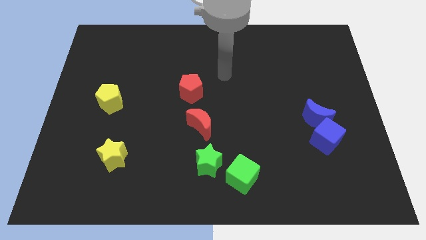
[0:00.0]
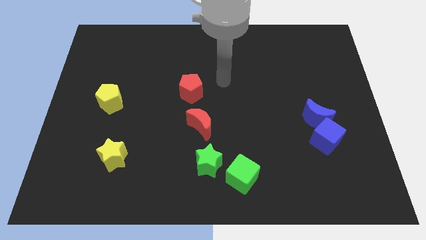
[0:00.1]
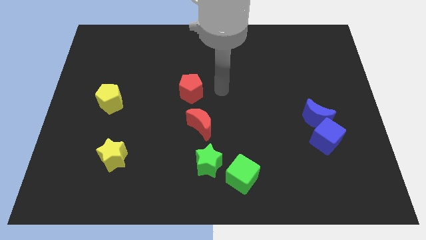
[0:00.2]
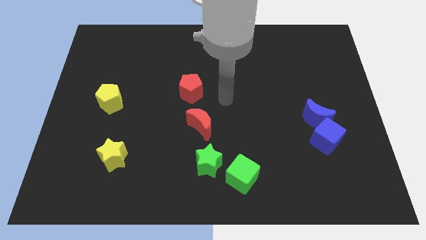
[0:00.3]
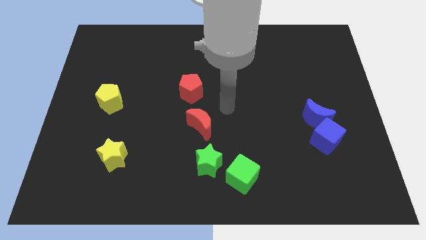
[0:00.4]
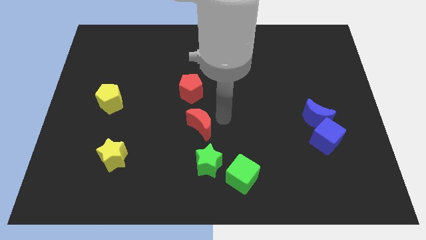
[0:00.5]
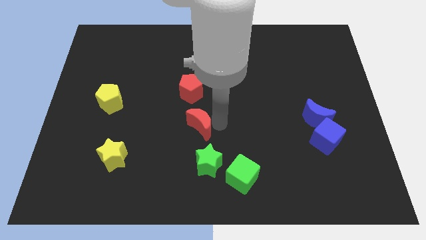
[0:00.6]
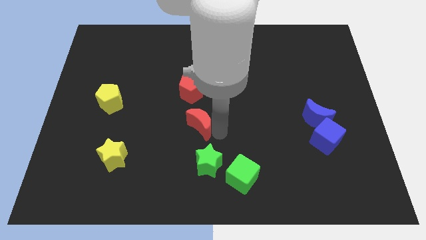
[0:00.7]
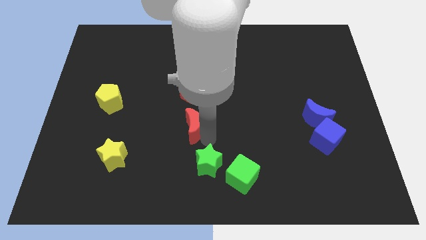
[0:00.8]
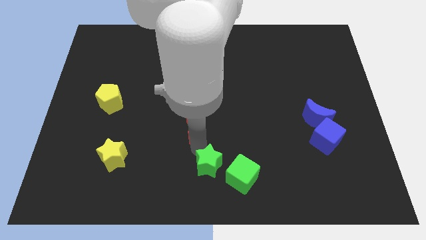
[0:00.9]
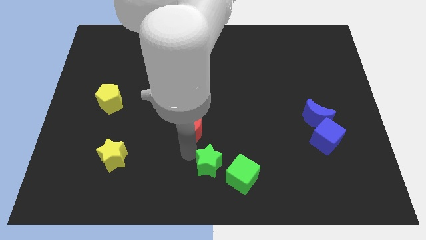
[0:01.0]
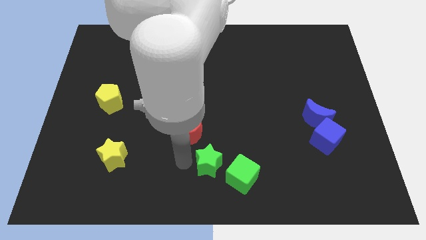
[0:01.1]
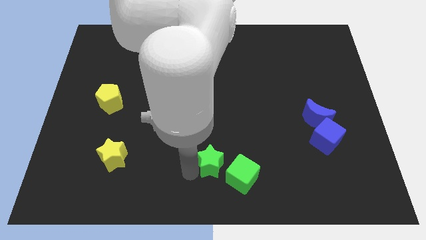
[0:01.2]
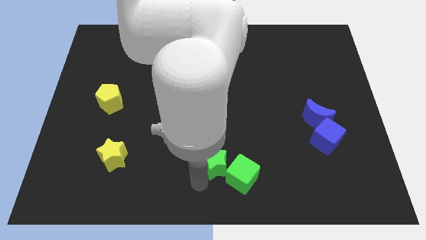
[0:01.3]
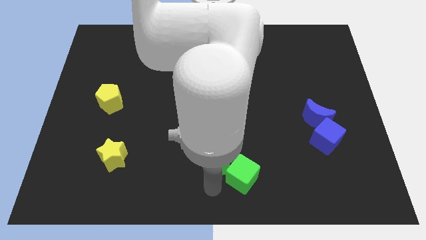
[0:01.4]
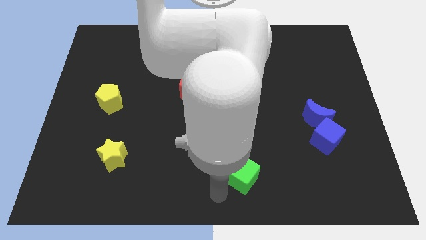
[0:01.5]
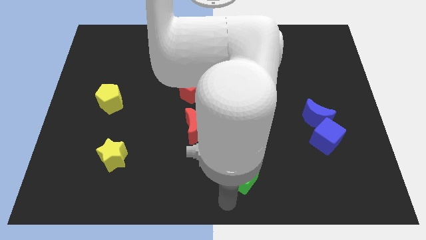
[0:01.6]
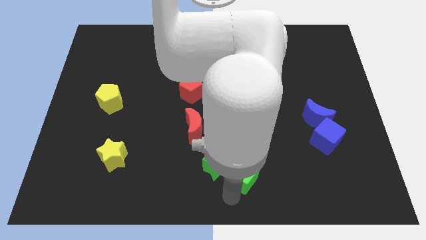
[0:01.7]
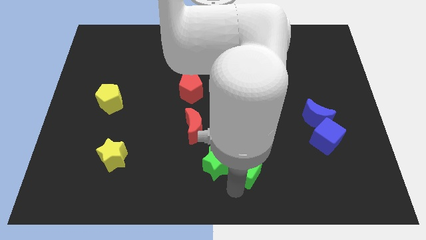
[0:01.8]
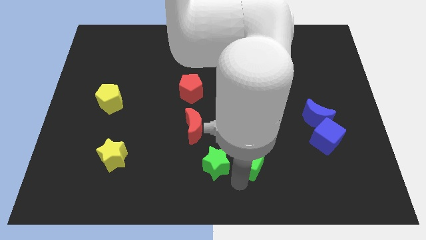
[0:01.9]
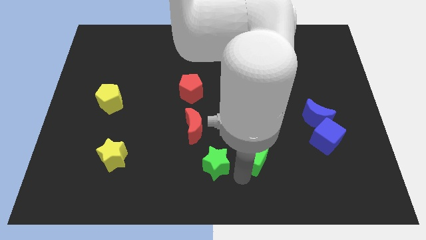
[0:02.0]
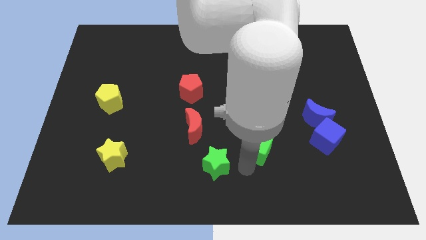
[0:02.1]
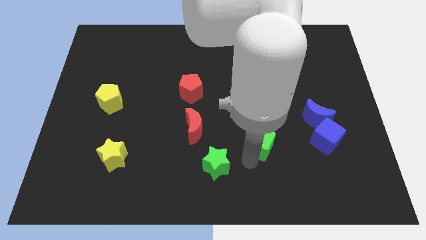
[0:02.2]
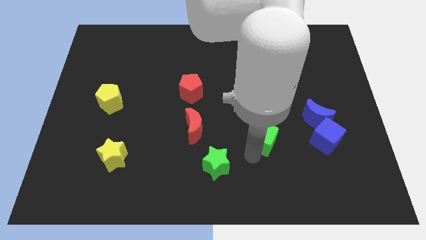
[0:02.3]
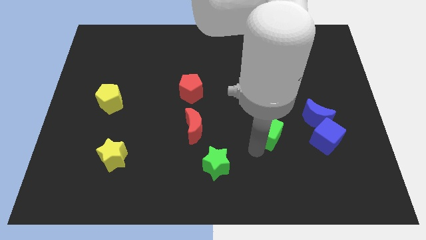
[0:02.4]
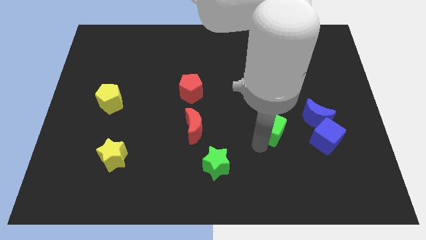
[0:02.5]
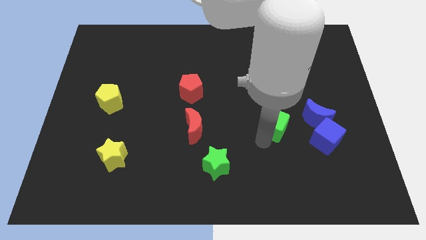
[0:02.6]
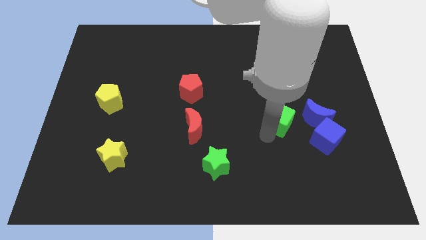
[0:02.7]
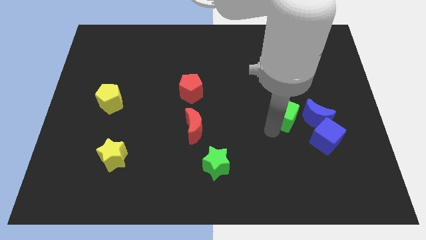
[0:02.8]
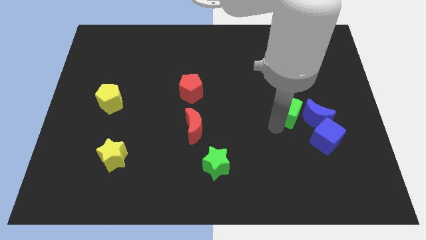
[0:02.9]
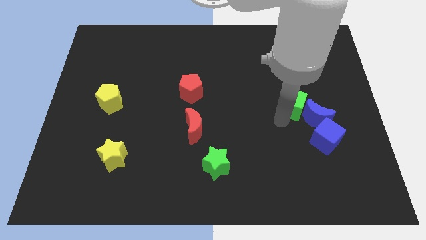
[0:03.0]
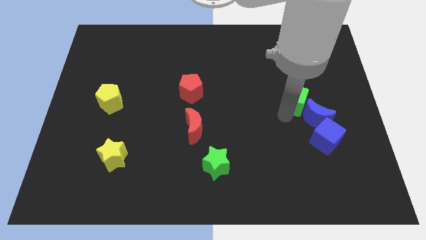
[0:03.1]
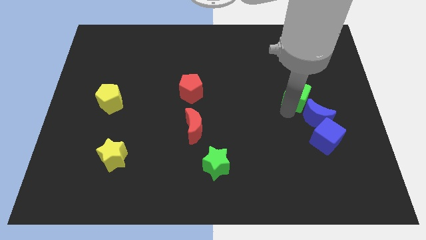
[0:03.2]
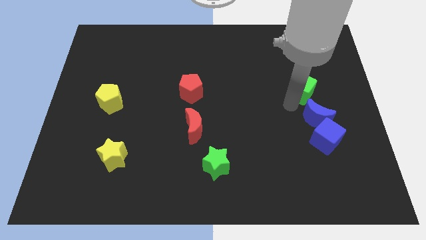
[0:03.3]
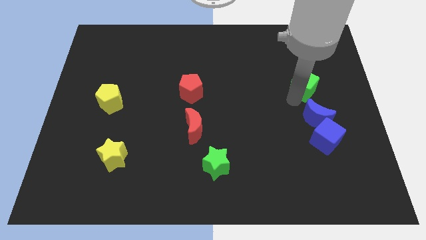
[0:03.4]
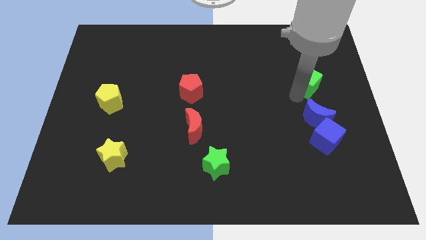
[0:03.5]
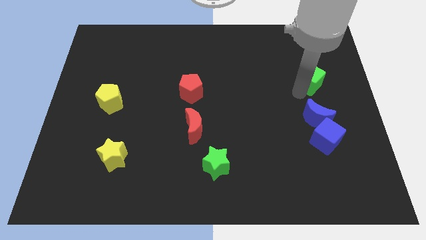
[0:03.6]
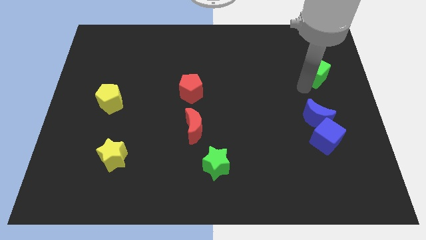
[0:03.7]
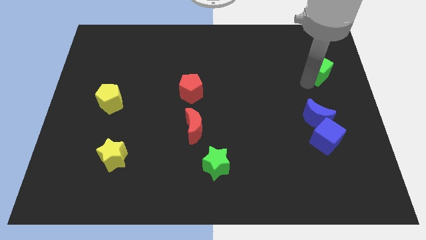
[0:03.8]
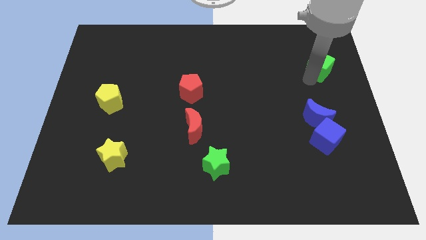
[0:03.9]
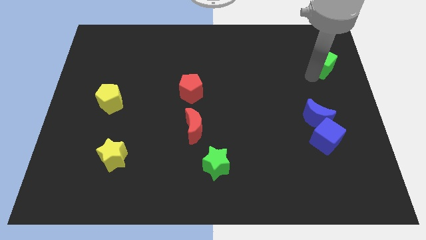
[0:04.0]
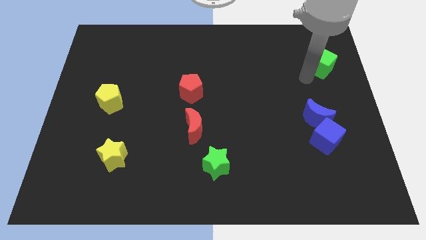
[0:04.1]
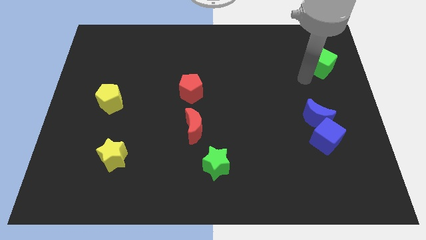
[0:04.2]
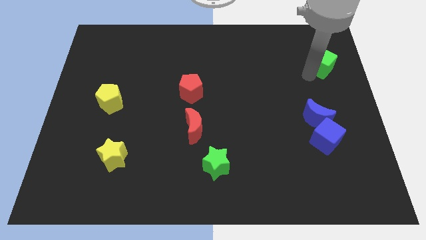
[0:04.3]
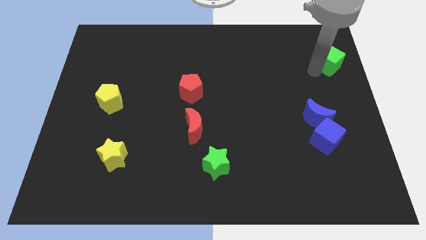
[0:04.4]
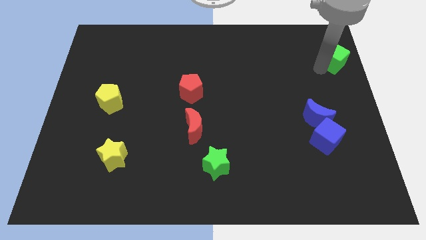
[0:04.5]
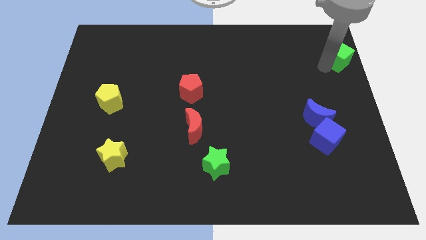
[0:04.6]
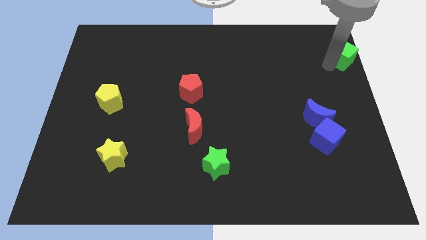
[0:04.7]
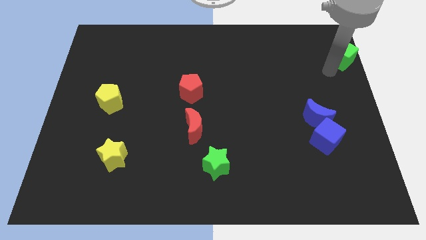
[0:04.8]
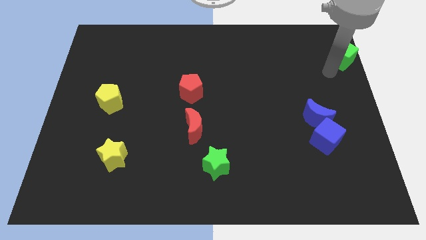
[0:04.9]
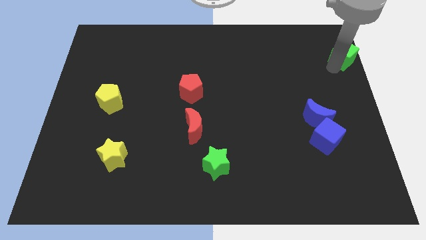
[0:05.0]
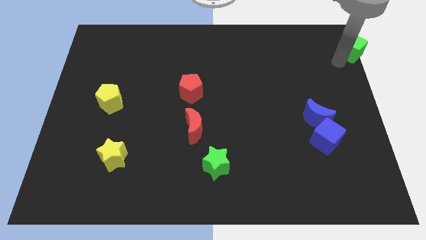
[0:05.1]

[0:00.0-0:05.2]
push the green cube to the upper right corner

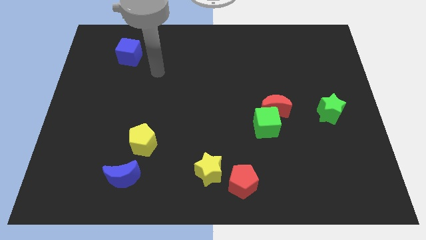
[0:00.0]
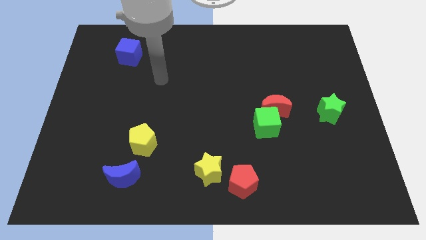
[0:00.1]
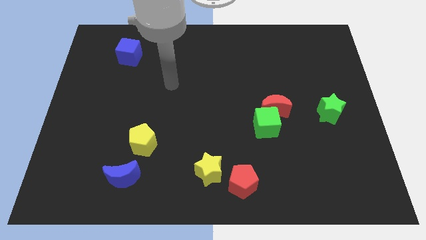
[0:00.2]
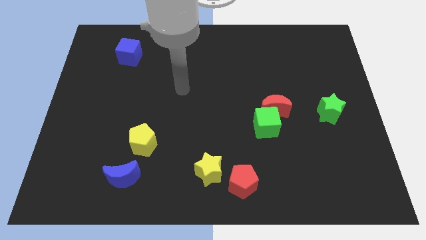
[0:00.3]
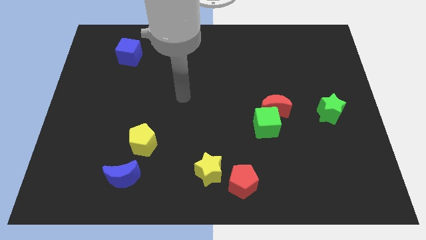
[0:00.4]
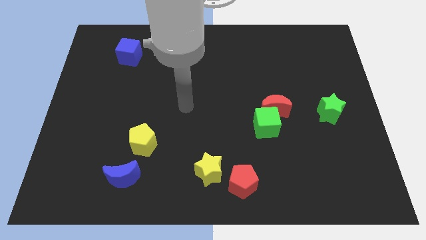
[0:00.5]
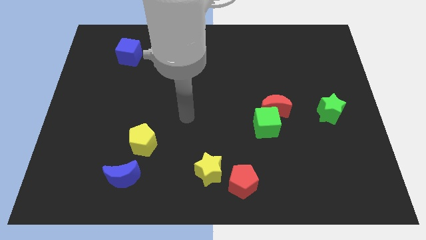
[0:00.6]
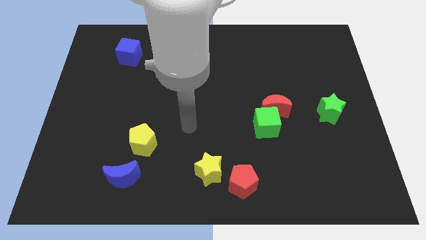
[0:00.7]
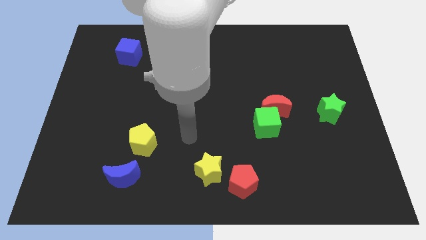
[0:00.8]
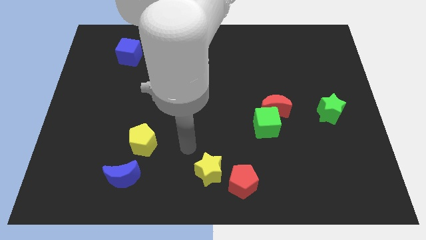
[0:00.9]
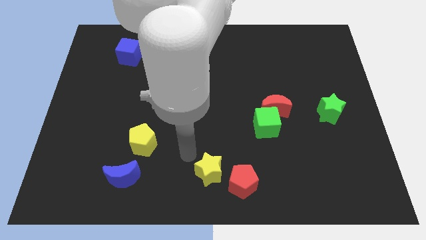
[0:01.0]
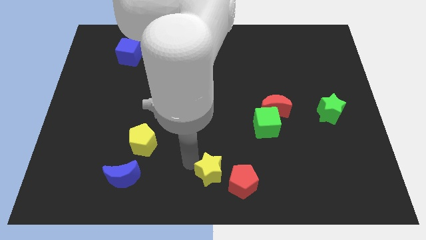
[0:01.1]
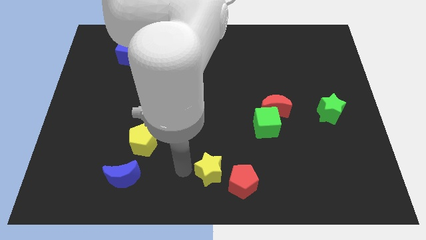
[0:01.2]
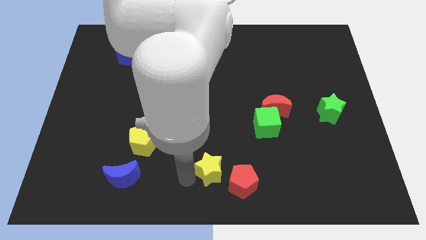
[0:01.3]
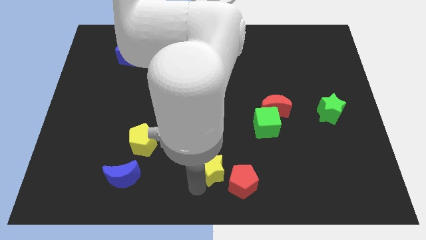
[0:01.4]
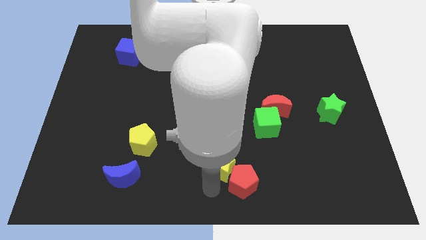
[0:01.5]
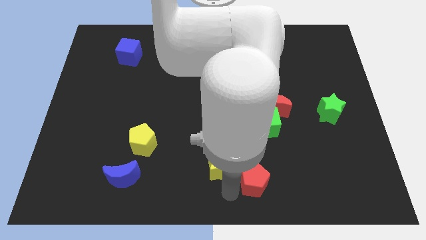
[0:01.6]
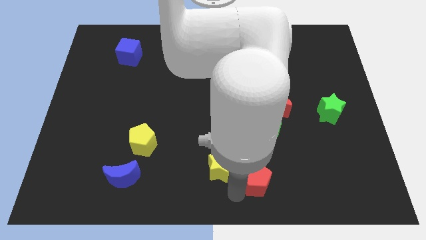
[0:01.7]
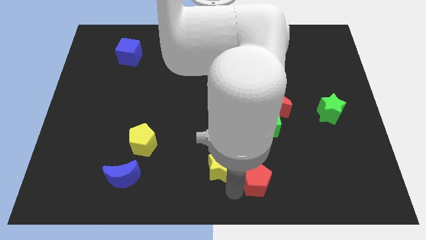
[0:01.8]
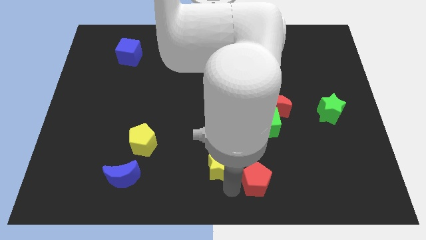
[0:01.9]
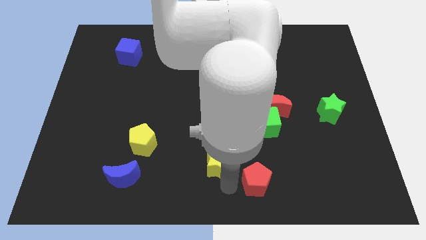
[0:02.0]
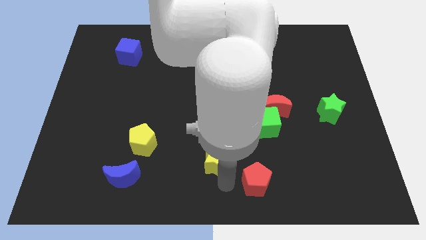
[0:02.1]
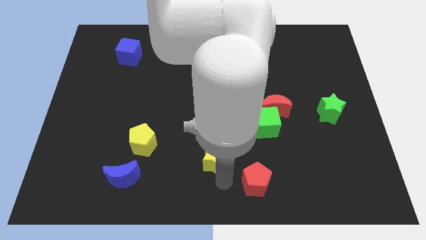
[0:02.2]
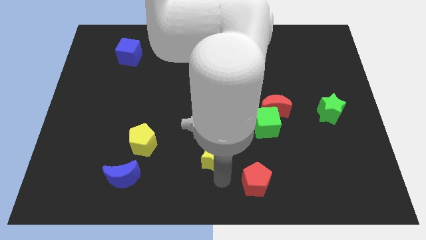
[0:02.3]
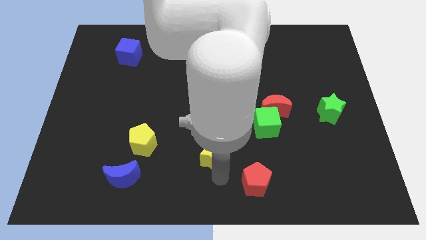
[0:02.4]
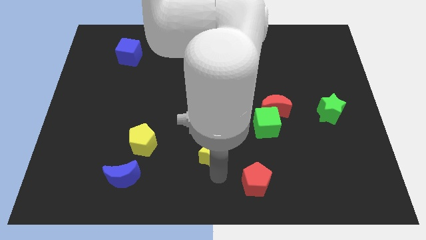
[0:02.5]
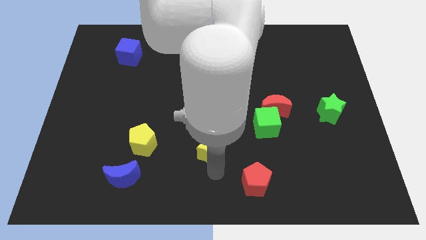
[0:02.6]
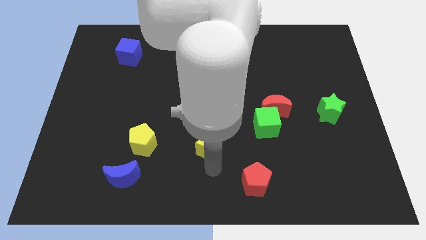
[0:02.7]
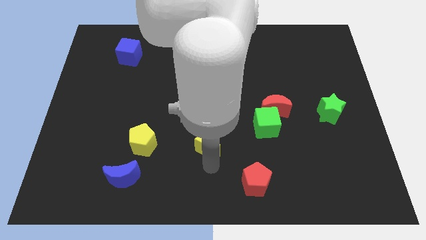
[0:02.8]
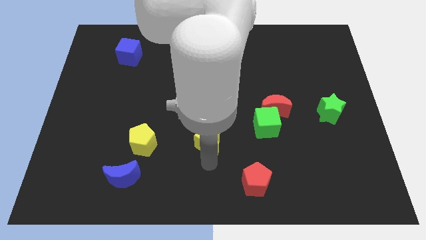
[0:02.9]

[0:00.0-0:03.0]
move the yellow star to the middle of the board

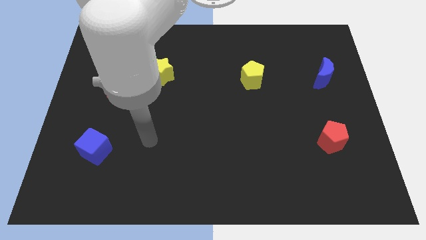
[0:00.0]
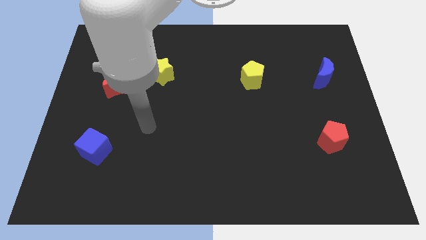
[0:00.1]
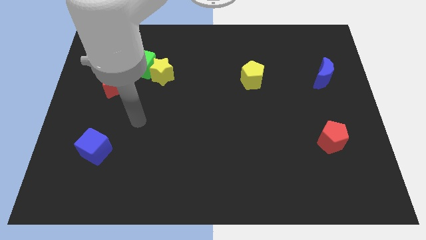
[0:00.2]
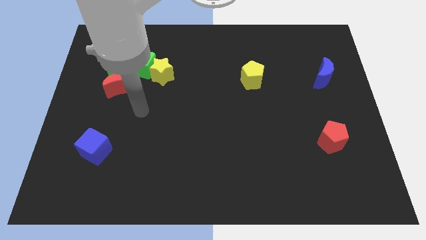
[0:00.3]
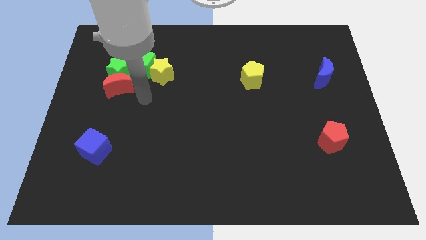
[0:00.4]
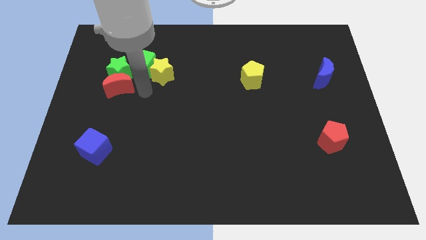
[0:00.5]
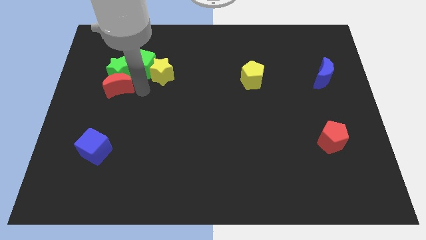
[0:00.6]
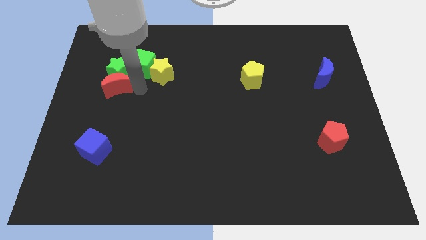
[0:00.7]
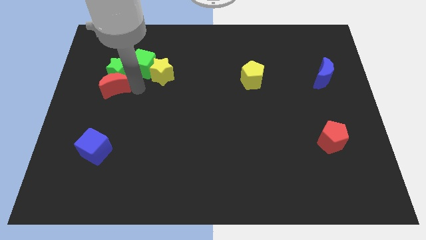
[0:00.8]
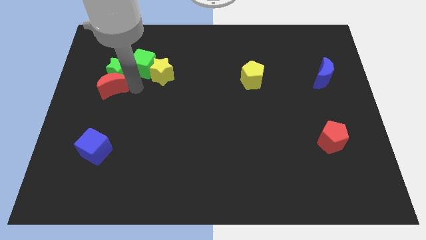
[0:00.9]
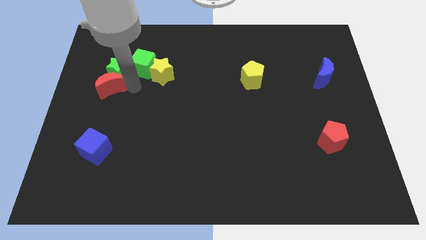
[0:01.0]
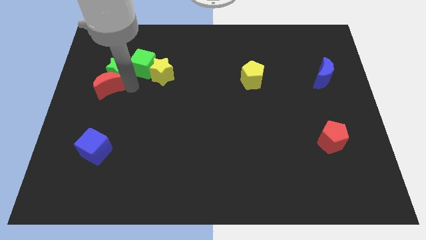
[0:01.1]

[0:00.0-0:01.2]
push the red moon to the left side
